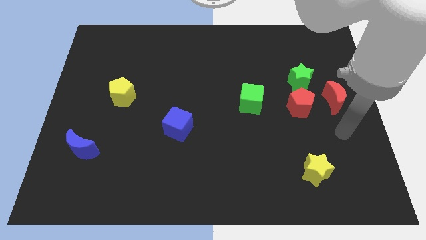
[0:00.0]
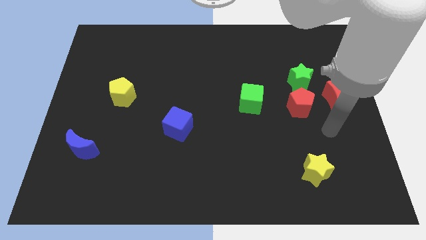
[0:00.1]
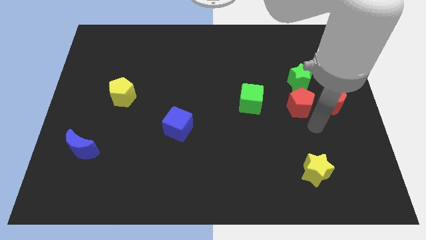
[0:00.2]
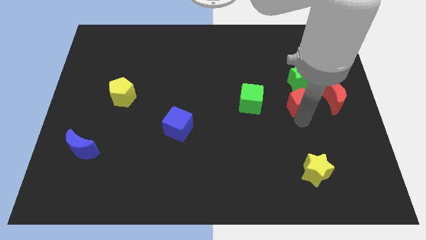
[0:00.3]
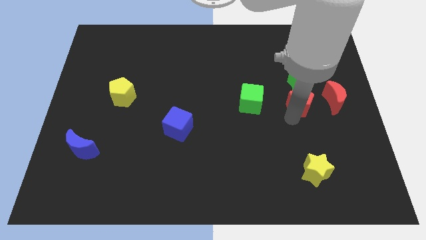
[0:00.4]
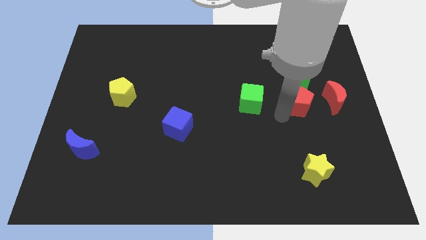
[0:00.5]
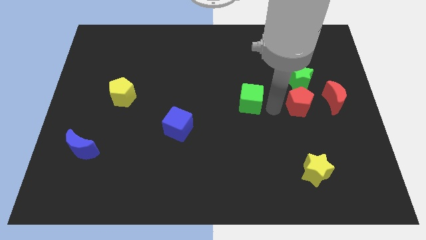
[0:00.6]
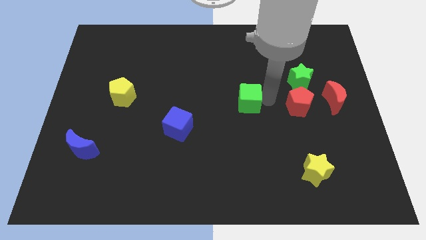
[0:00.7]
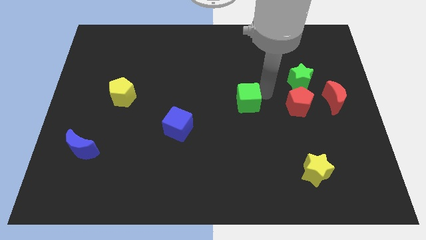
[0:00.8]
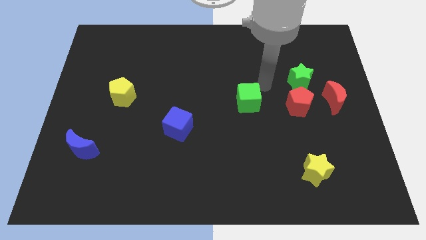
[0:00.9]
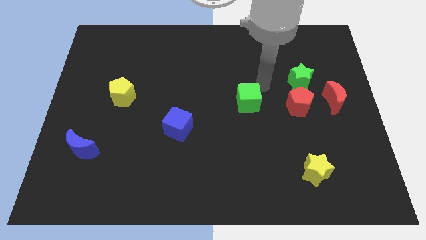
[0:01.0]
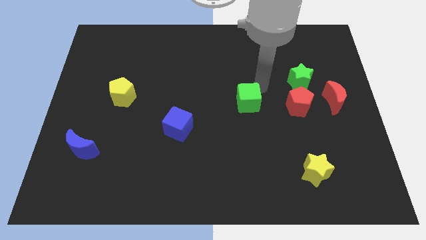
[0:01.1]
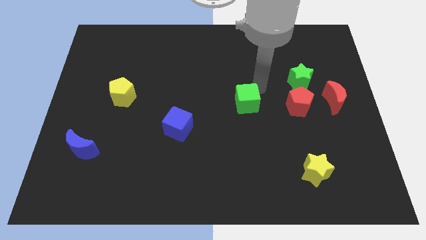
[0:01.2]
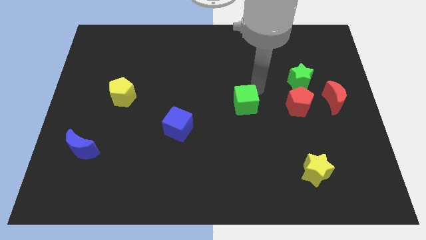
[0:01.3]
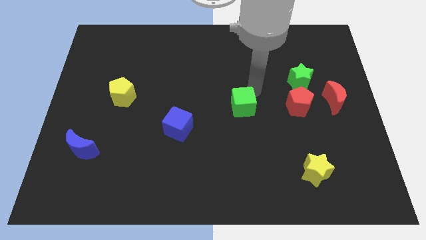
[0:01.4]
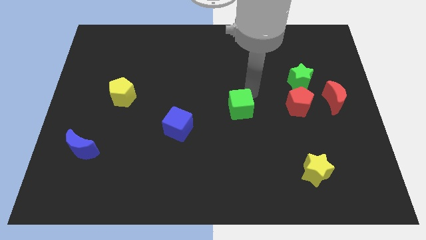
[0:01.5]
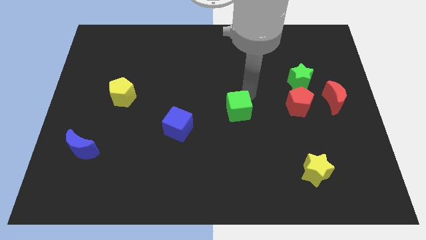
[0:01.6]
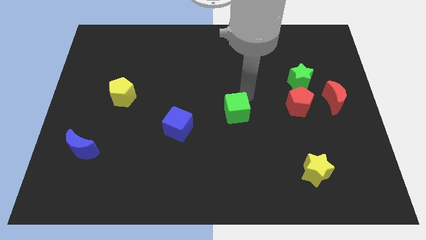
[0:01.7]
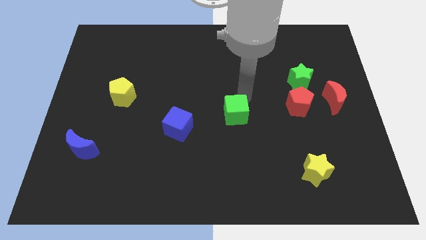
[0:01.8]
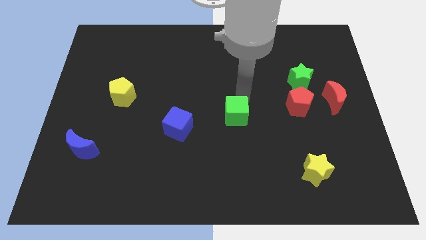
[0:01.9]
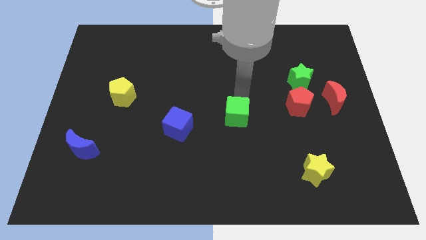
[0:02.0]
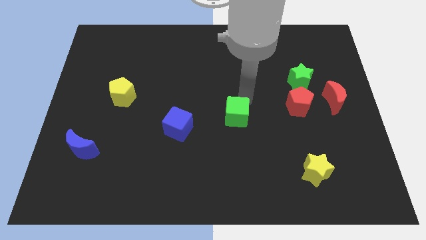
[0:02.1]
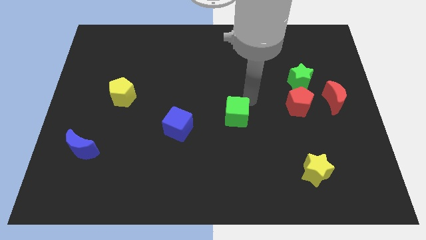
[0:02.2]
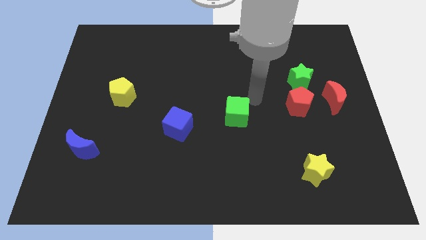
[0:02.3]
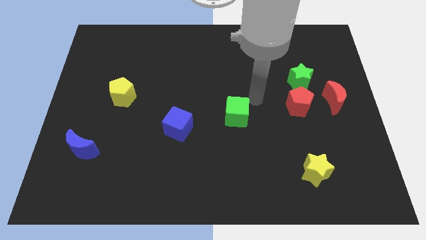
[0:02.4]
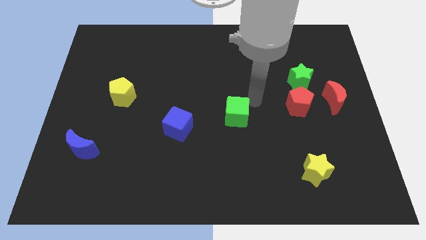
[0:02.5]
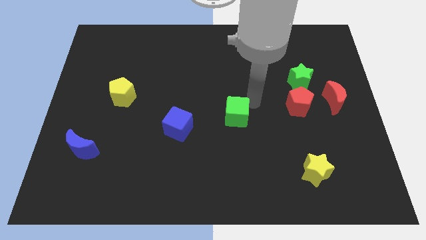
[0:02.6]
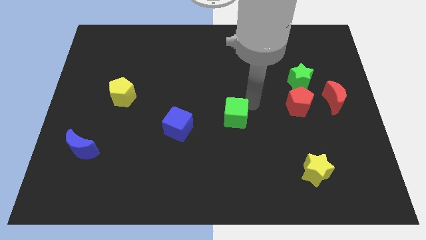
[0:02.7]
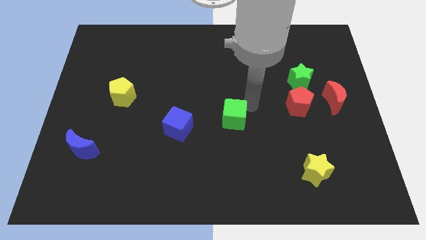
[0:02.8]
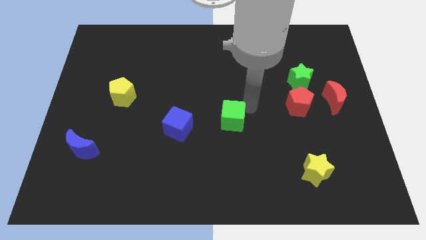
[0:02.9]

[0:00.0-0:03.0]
slightly slide the green cube down and left diagonally

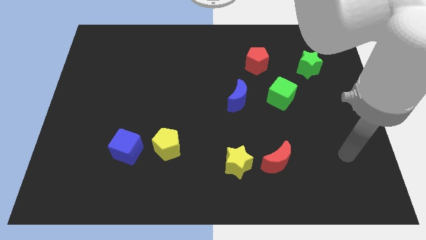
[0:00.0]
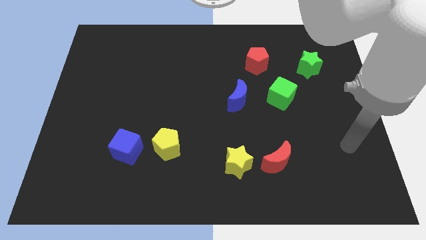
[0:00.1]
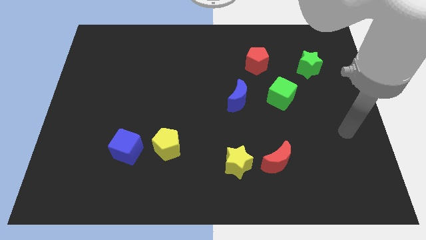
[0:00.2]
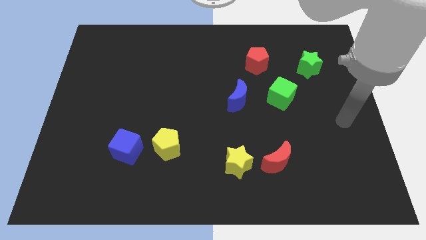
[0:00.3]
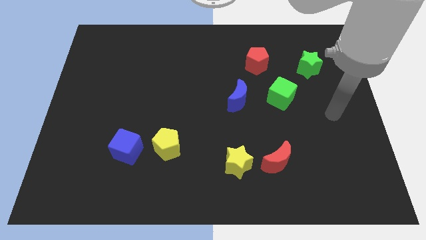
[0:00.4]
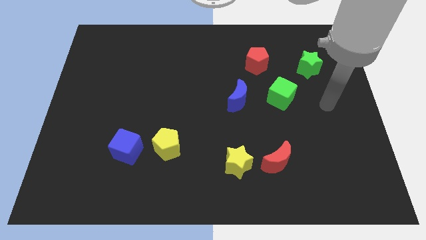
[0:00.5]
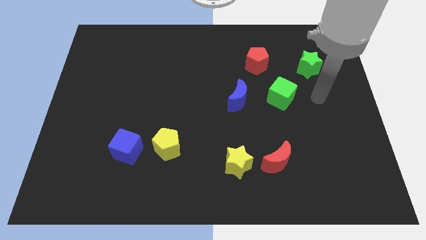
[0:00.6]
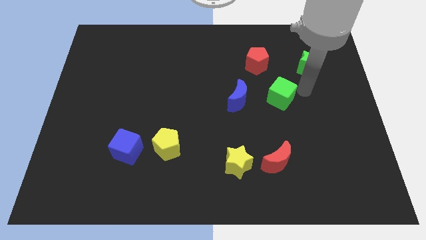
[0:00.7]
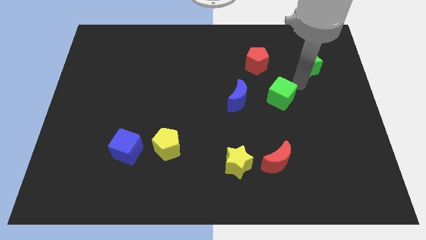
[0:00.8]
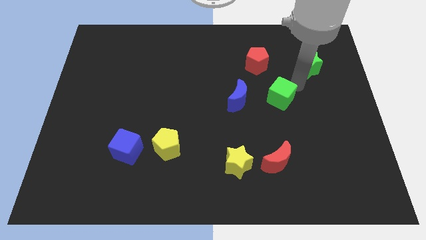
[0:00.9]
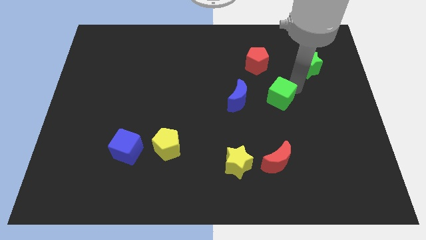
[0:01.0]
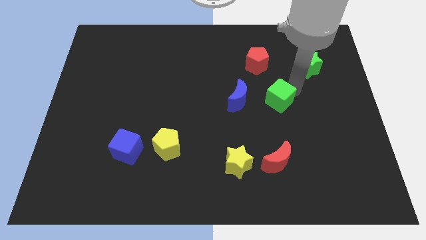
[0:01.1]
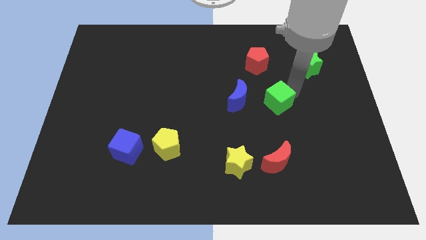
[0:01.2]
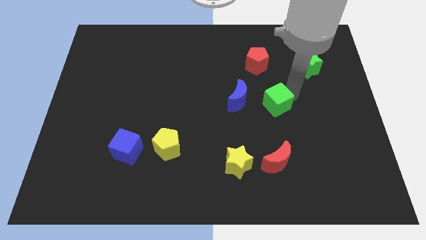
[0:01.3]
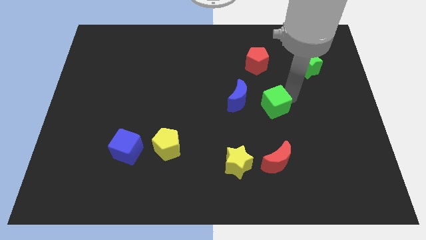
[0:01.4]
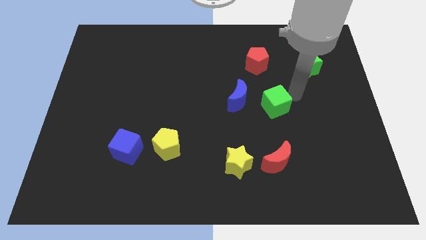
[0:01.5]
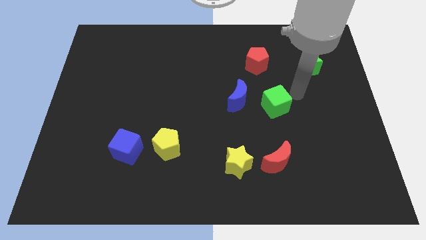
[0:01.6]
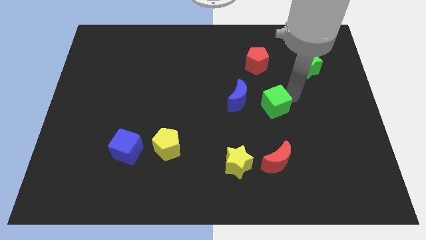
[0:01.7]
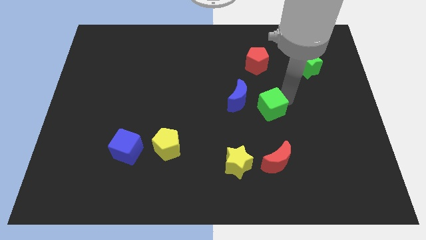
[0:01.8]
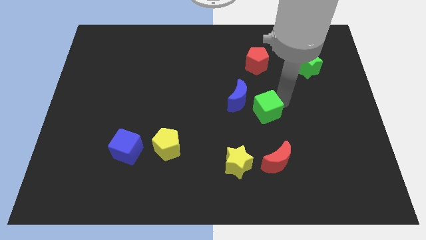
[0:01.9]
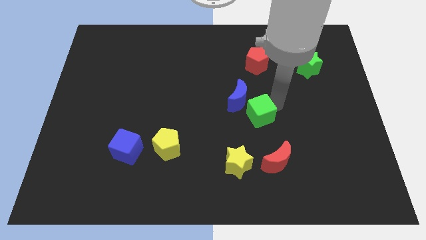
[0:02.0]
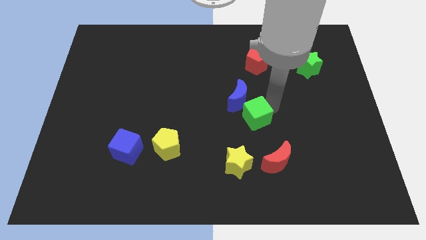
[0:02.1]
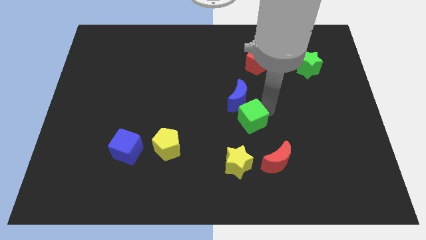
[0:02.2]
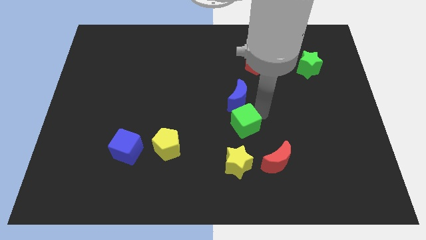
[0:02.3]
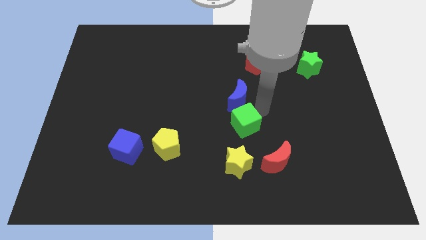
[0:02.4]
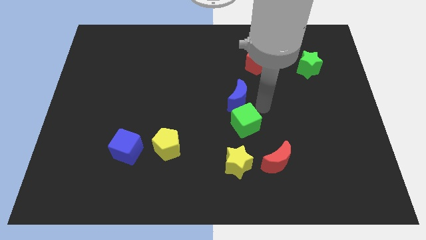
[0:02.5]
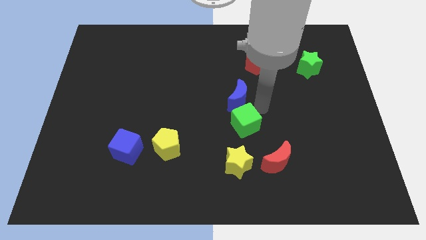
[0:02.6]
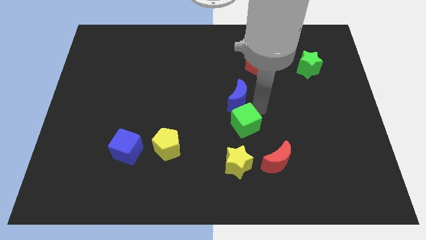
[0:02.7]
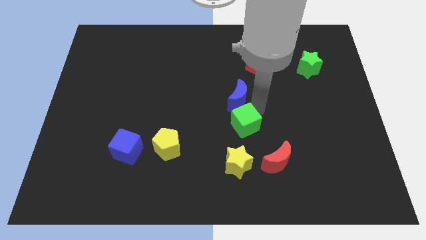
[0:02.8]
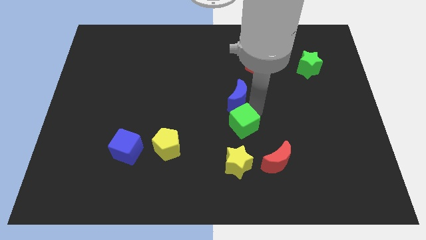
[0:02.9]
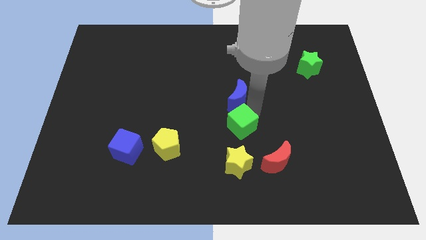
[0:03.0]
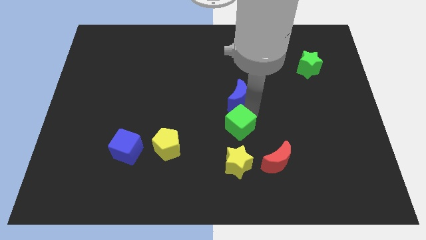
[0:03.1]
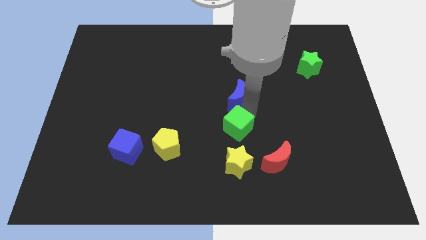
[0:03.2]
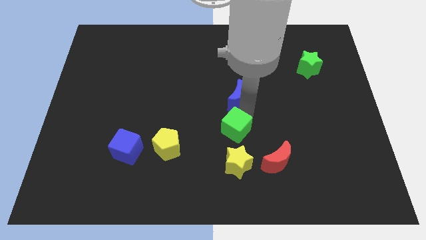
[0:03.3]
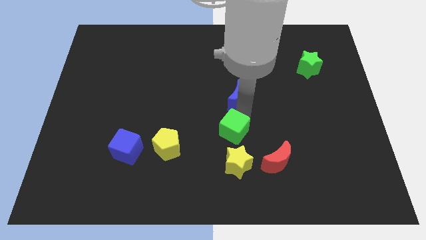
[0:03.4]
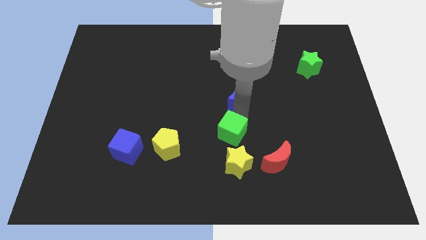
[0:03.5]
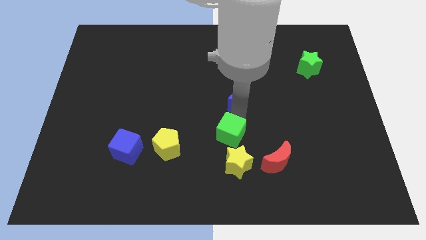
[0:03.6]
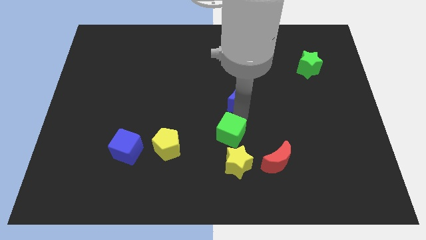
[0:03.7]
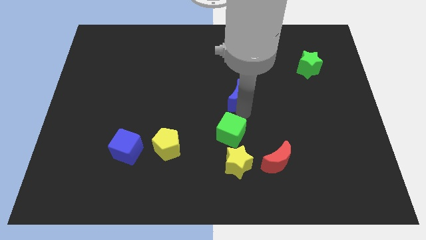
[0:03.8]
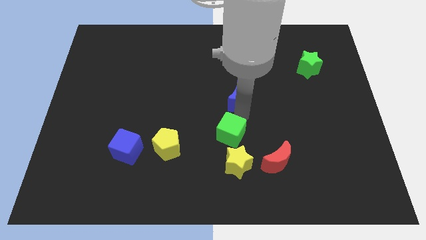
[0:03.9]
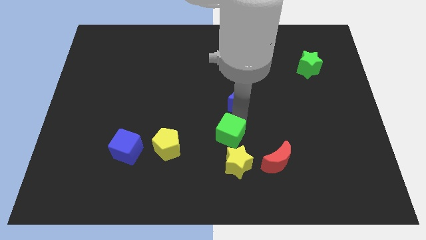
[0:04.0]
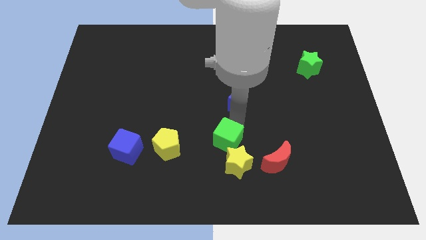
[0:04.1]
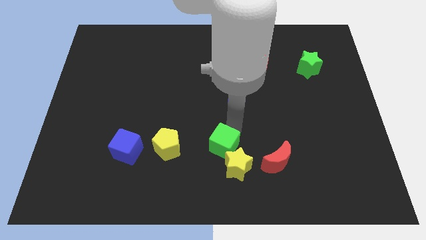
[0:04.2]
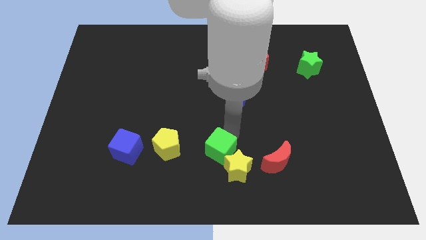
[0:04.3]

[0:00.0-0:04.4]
push the green cube downwards and to the left

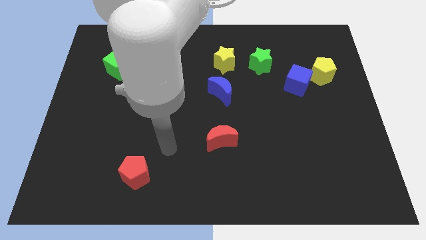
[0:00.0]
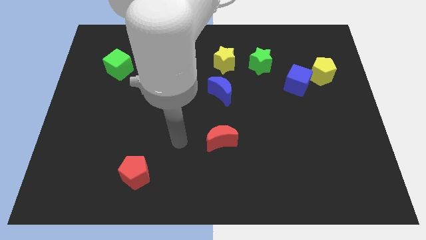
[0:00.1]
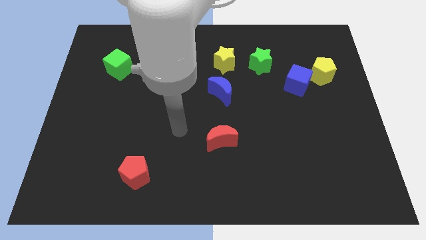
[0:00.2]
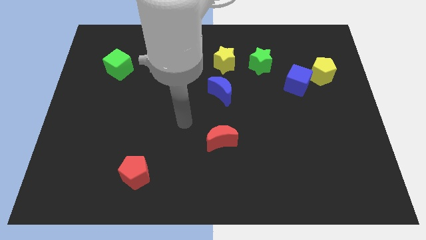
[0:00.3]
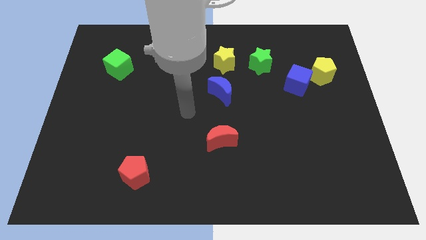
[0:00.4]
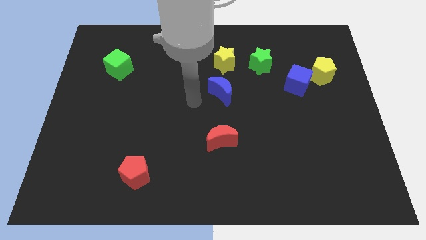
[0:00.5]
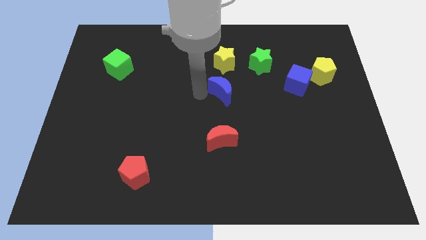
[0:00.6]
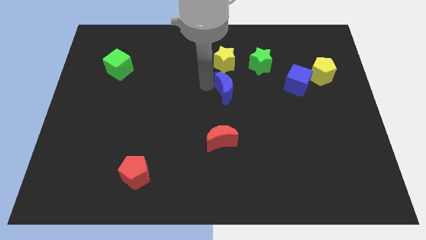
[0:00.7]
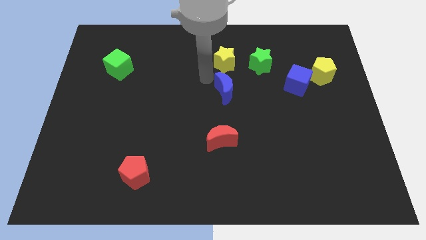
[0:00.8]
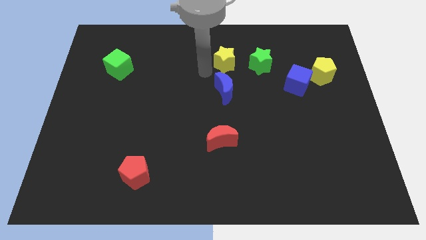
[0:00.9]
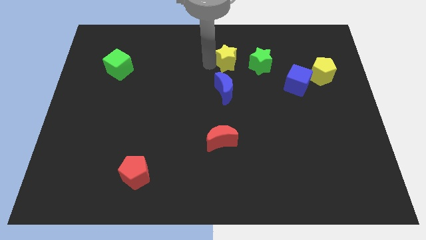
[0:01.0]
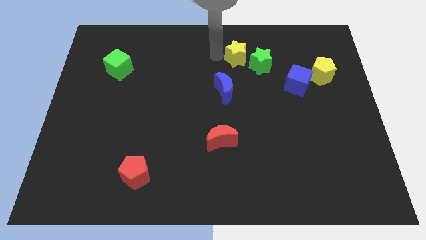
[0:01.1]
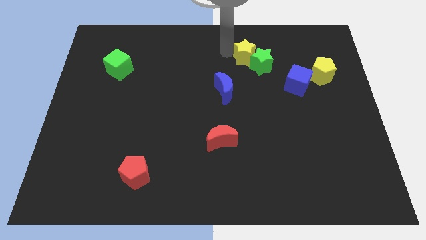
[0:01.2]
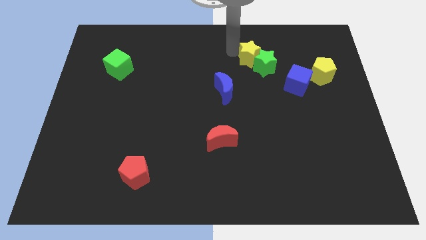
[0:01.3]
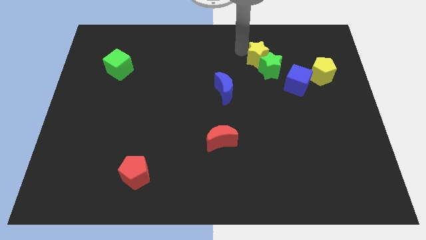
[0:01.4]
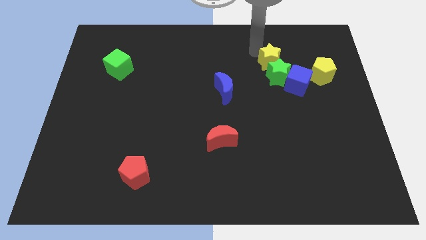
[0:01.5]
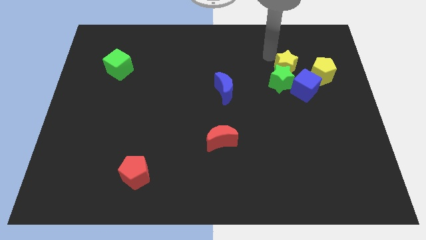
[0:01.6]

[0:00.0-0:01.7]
slide the green star a little bit downwards and then to the right
